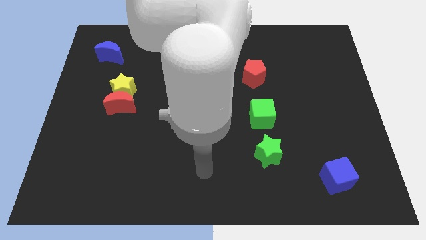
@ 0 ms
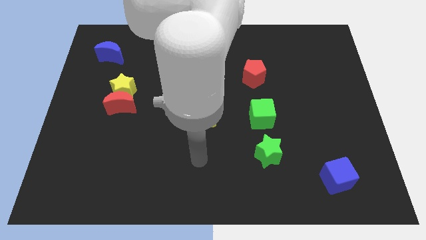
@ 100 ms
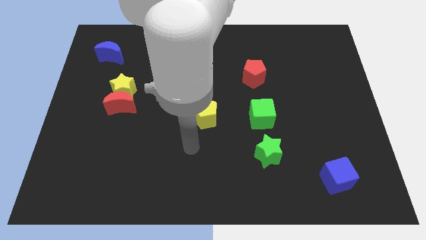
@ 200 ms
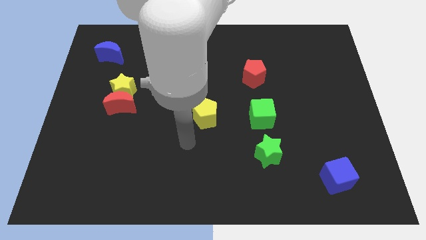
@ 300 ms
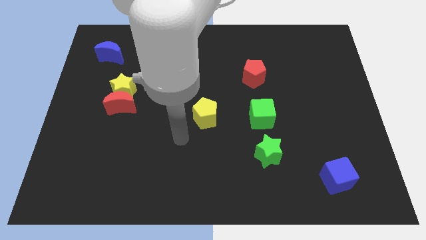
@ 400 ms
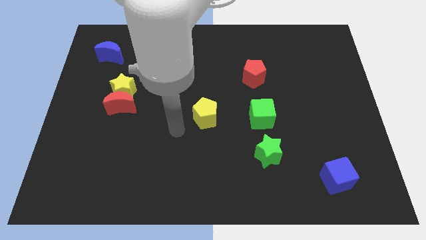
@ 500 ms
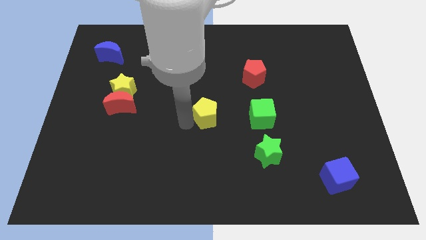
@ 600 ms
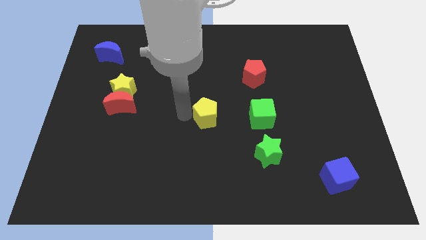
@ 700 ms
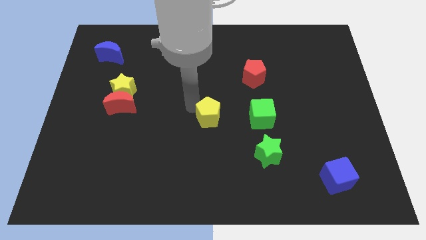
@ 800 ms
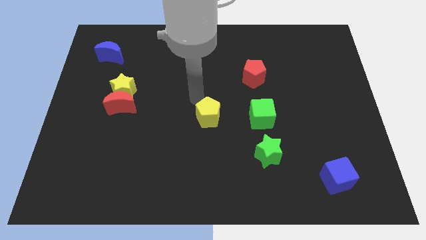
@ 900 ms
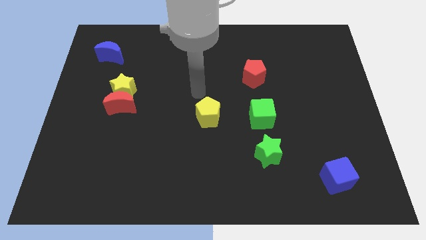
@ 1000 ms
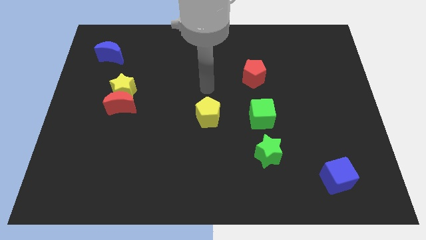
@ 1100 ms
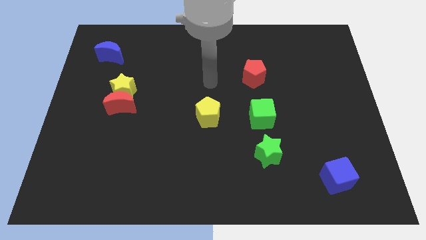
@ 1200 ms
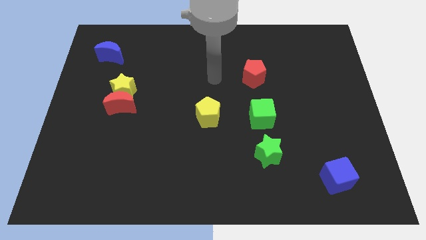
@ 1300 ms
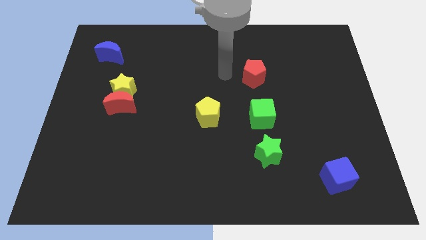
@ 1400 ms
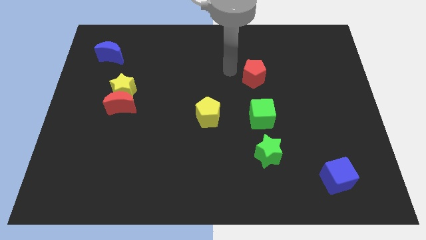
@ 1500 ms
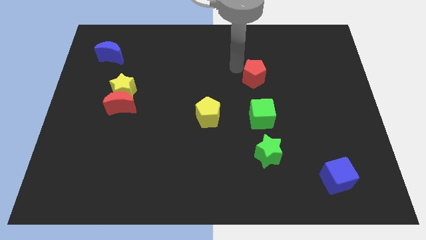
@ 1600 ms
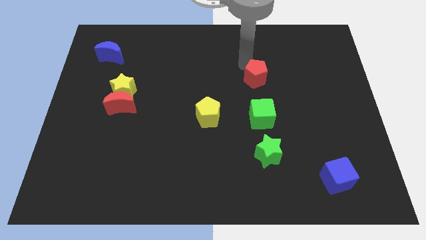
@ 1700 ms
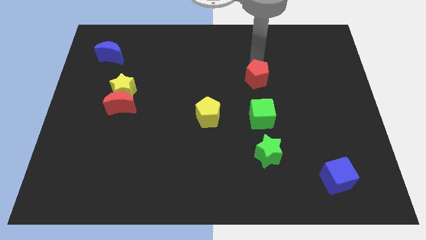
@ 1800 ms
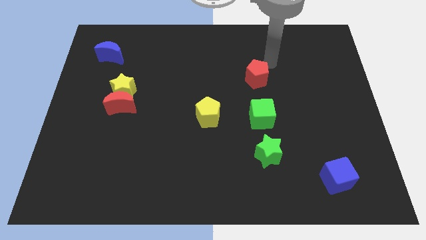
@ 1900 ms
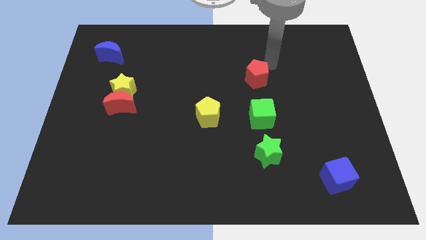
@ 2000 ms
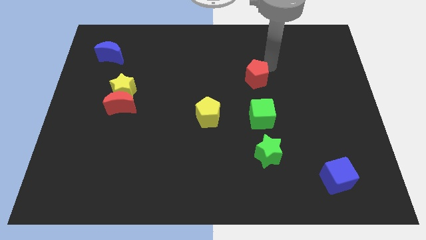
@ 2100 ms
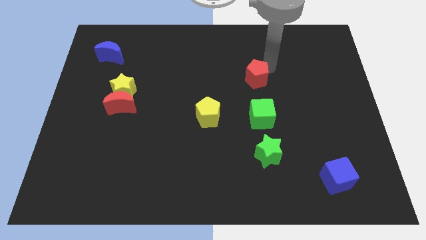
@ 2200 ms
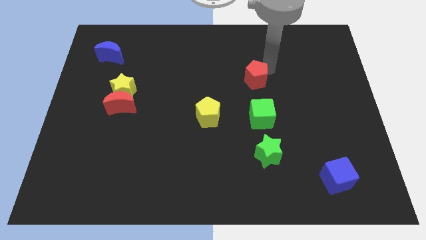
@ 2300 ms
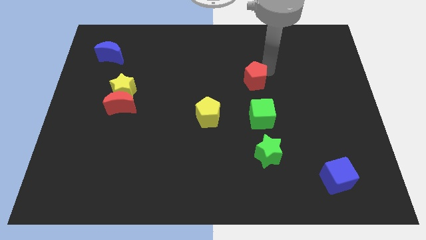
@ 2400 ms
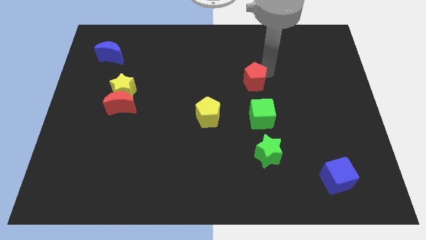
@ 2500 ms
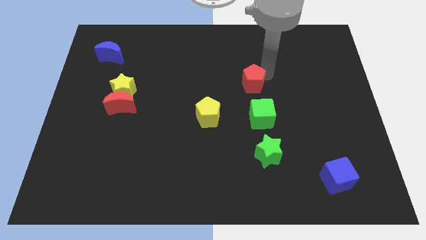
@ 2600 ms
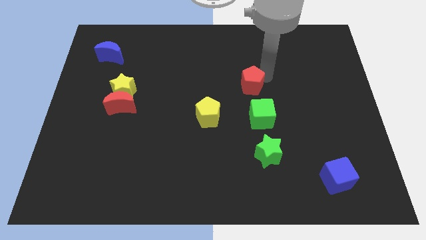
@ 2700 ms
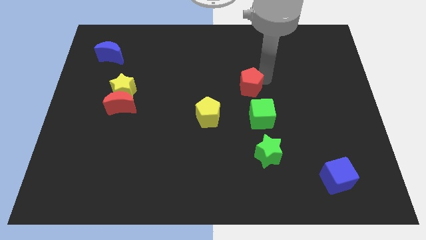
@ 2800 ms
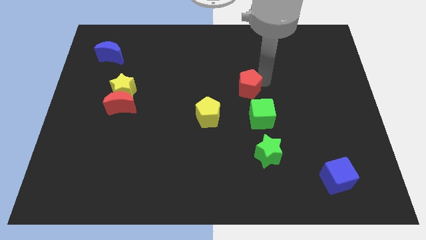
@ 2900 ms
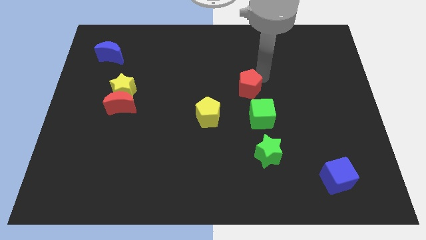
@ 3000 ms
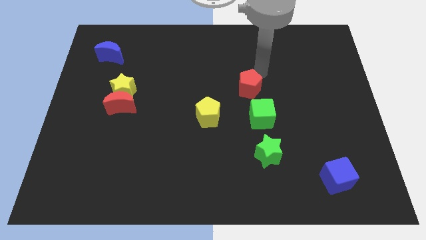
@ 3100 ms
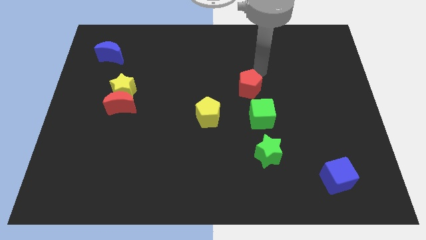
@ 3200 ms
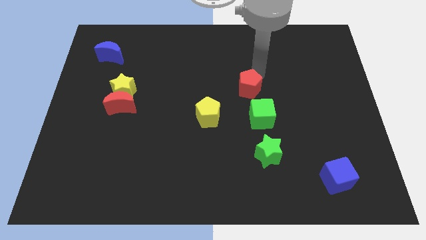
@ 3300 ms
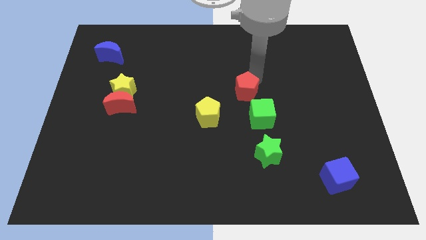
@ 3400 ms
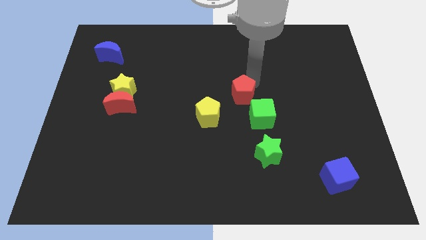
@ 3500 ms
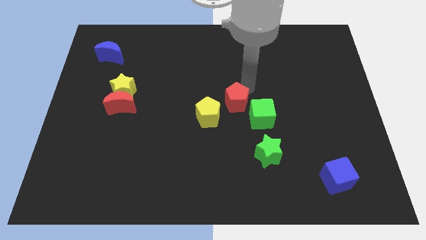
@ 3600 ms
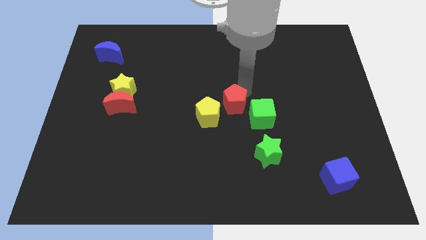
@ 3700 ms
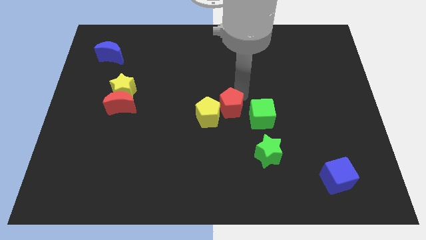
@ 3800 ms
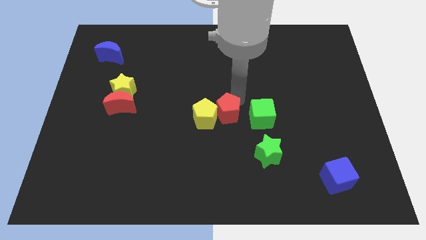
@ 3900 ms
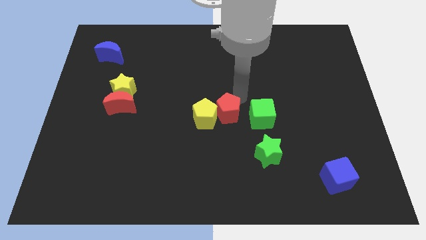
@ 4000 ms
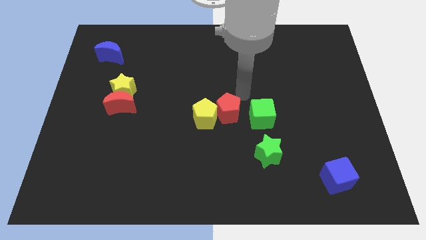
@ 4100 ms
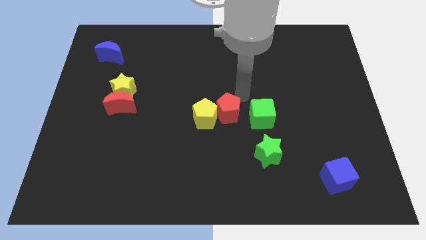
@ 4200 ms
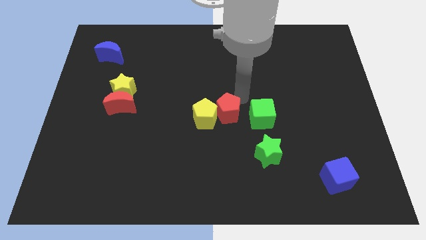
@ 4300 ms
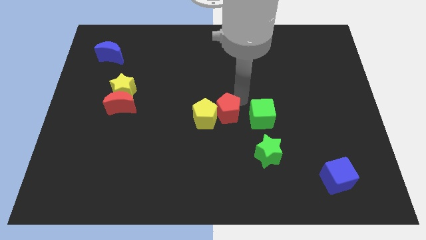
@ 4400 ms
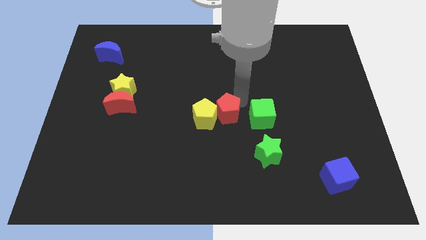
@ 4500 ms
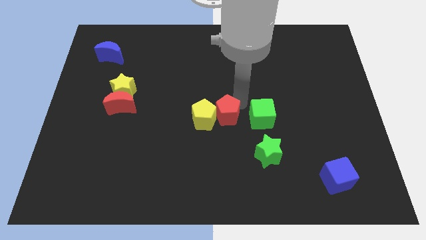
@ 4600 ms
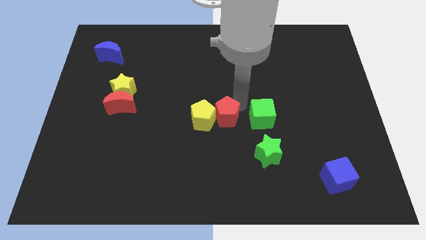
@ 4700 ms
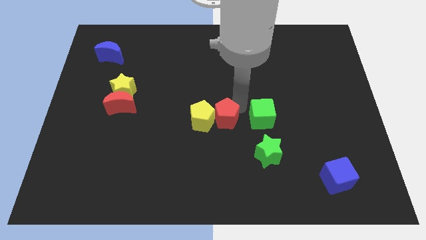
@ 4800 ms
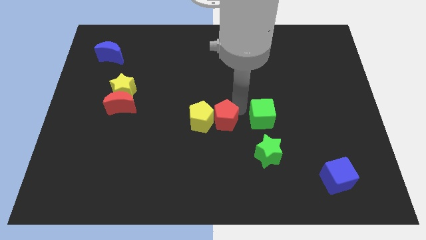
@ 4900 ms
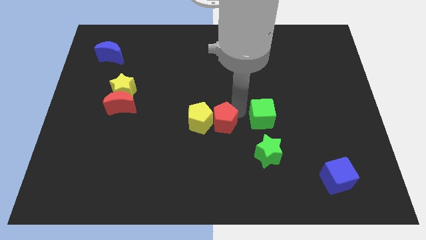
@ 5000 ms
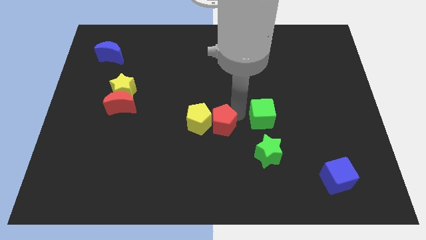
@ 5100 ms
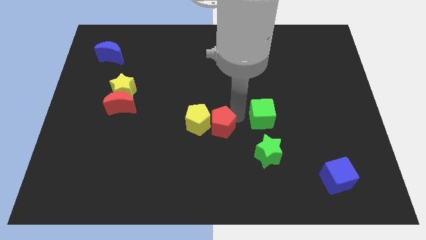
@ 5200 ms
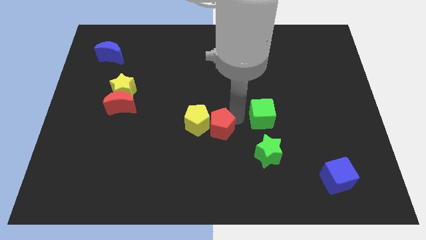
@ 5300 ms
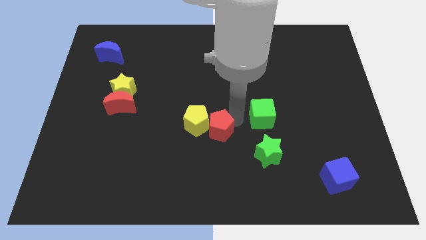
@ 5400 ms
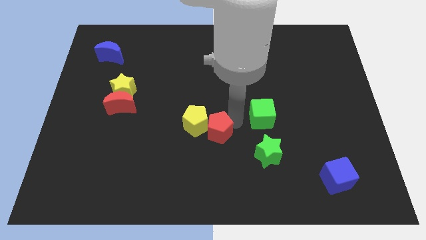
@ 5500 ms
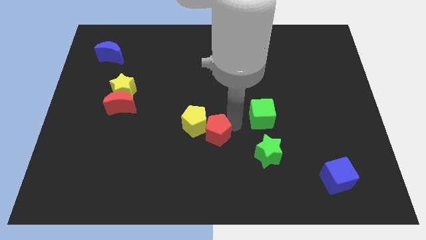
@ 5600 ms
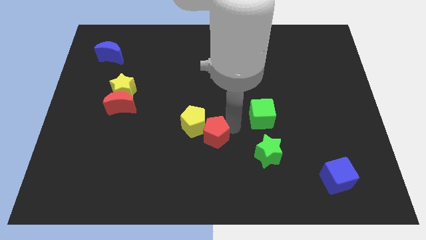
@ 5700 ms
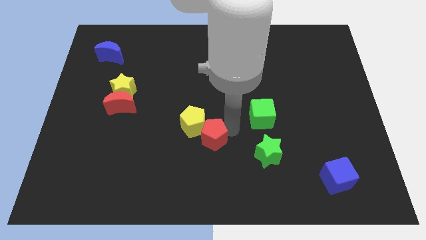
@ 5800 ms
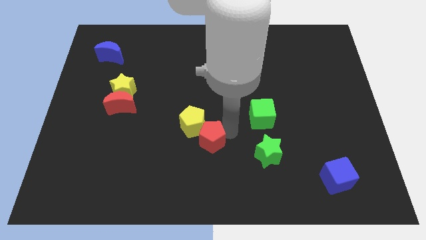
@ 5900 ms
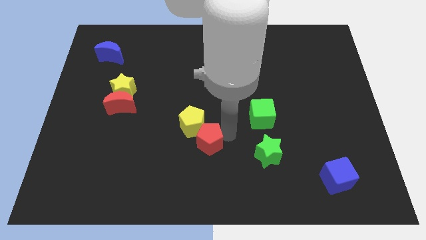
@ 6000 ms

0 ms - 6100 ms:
move the red pentagon down and to the left diagonally

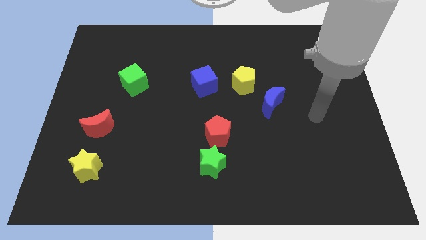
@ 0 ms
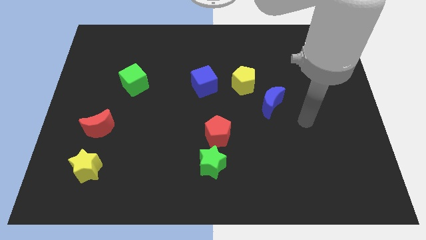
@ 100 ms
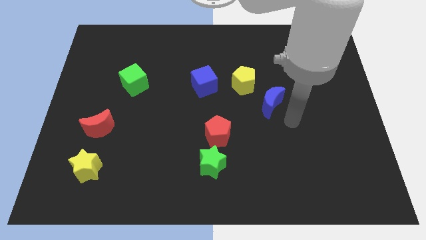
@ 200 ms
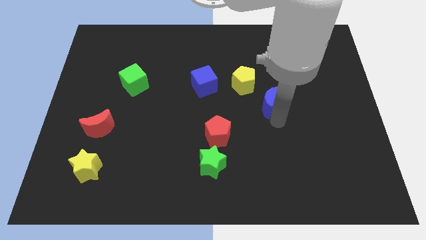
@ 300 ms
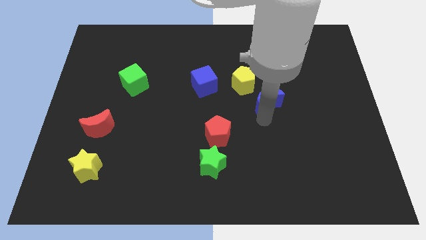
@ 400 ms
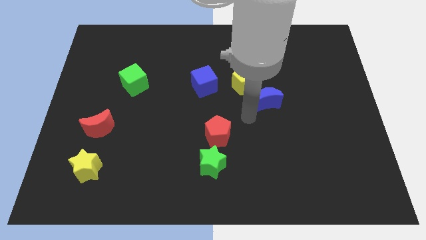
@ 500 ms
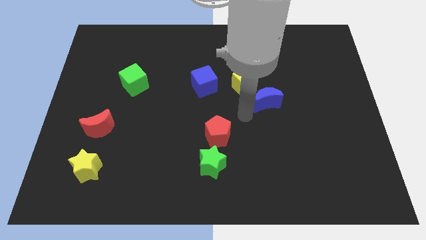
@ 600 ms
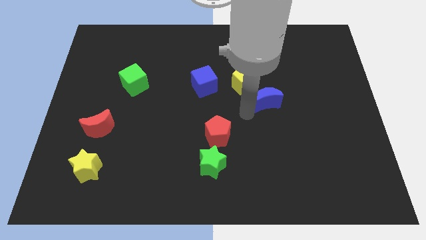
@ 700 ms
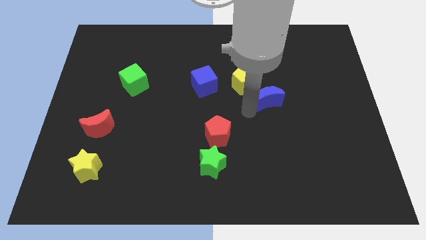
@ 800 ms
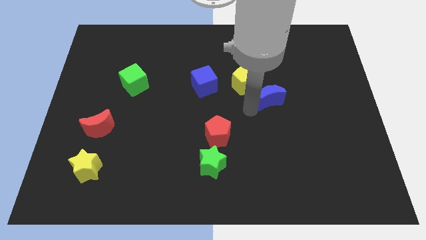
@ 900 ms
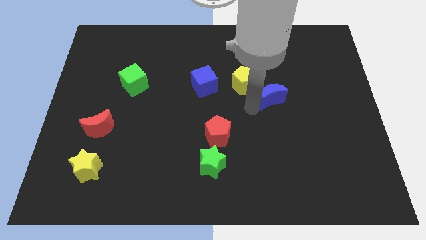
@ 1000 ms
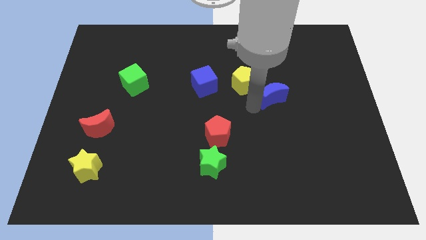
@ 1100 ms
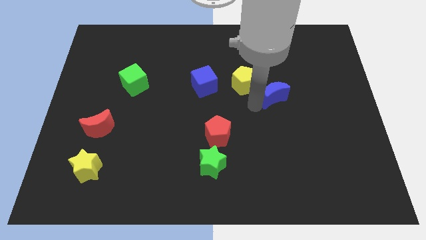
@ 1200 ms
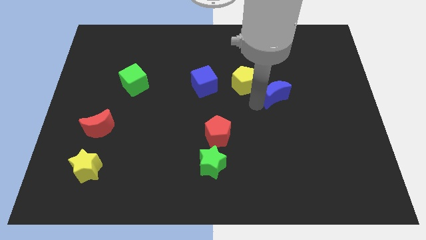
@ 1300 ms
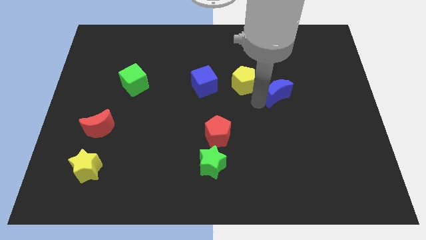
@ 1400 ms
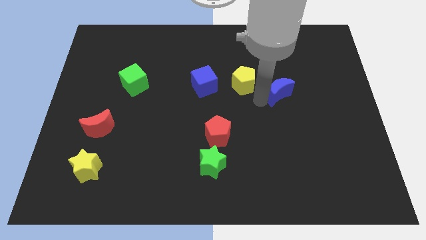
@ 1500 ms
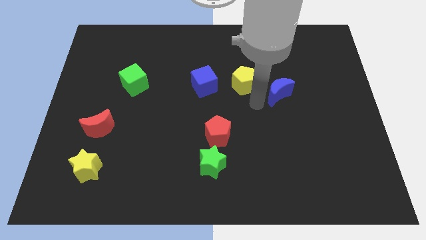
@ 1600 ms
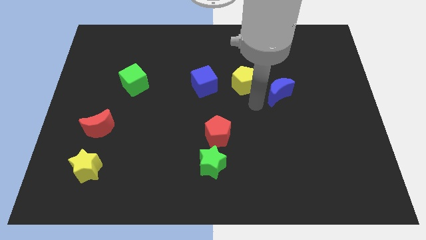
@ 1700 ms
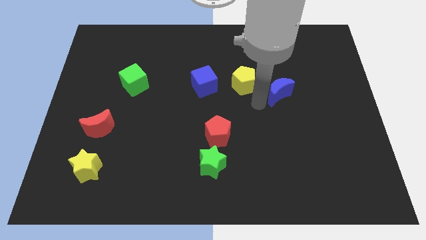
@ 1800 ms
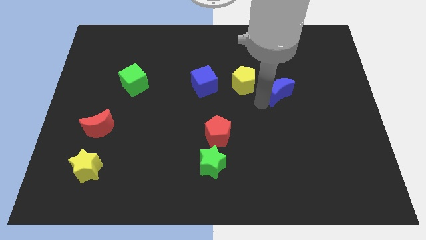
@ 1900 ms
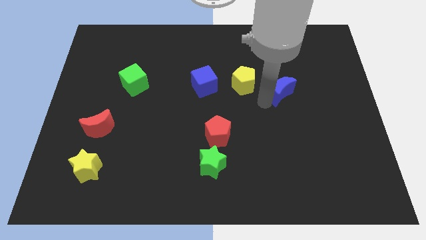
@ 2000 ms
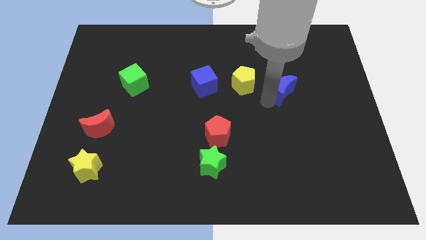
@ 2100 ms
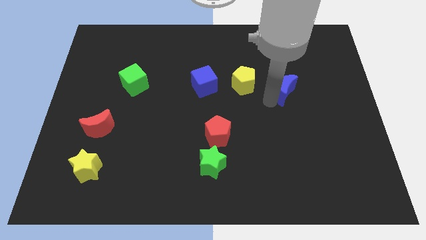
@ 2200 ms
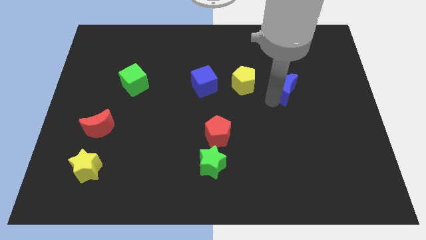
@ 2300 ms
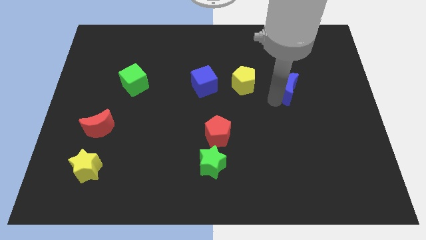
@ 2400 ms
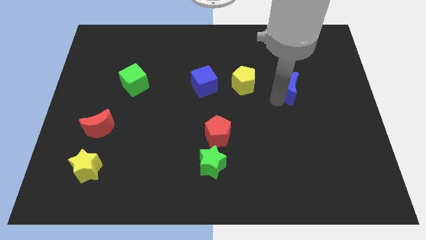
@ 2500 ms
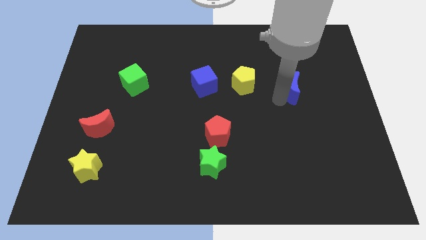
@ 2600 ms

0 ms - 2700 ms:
slide the blue moon diagonally upwards and to the right a little bit
